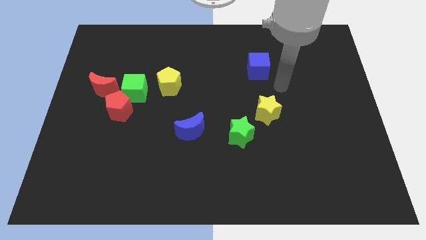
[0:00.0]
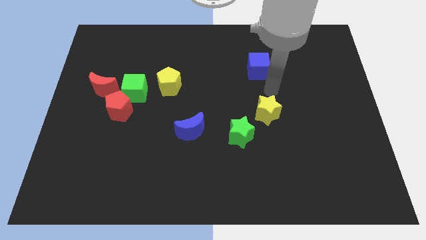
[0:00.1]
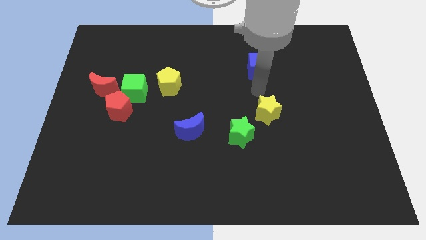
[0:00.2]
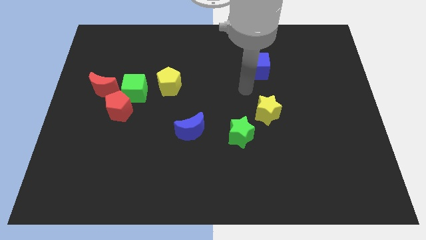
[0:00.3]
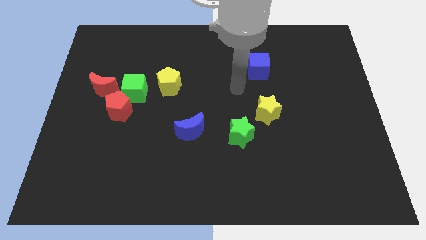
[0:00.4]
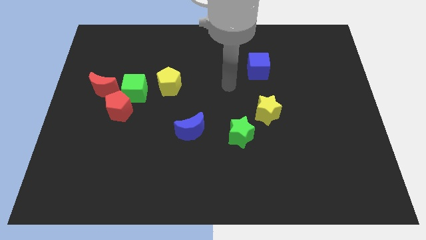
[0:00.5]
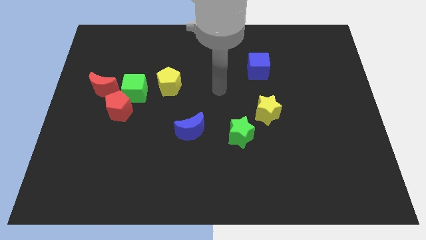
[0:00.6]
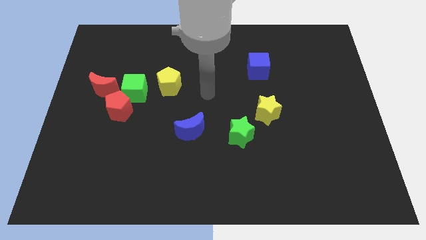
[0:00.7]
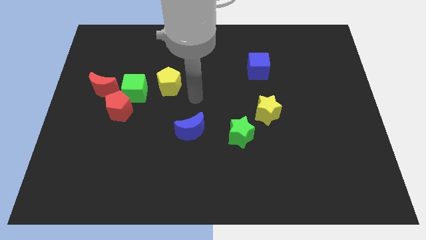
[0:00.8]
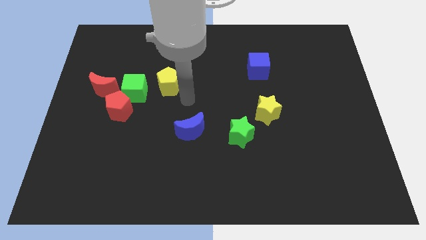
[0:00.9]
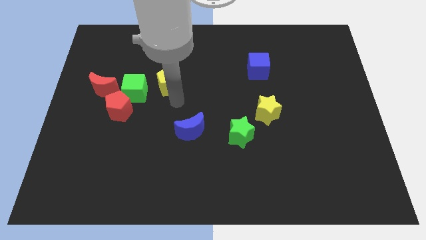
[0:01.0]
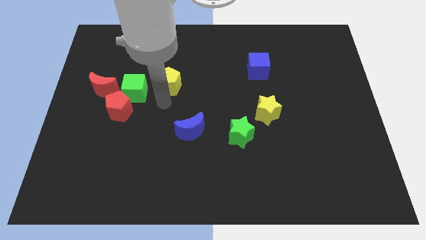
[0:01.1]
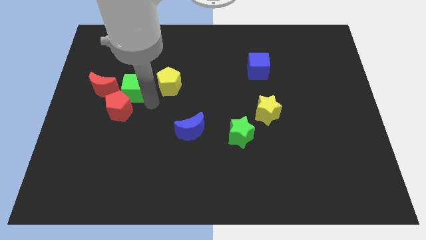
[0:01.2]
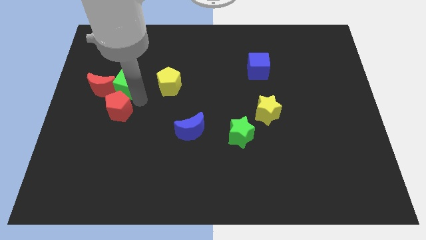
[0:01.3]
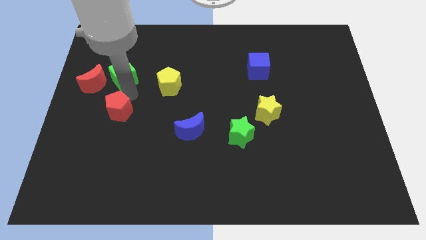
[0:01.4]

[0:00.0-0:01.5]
separate the red pentagon from the green cube and red moon

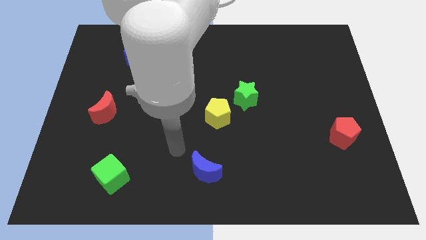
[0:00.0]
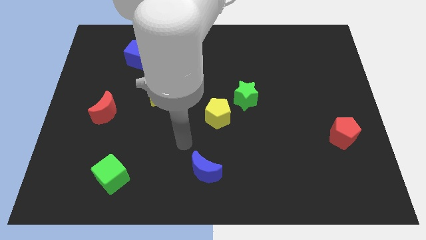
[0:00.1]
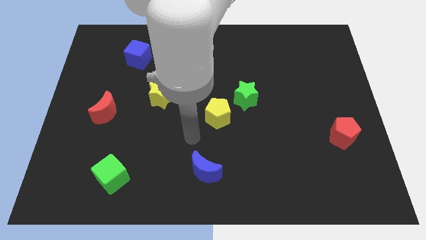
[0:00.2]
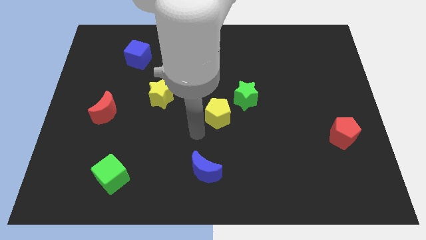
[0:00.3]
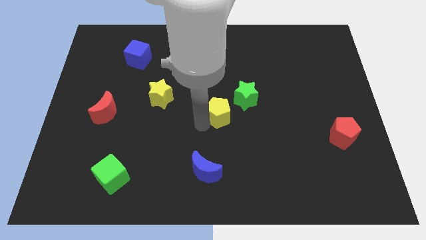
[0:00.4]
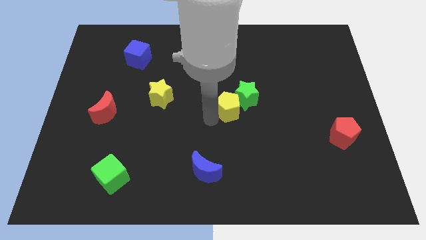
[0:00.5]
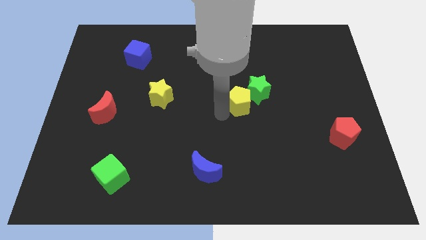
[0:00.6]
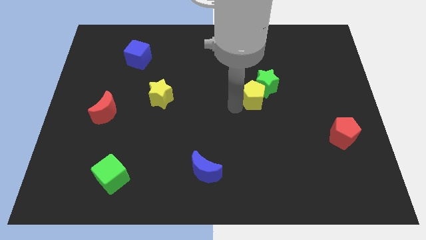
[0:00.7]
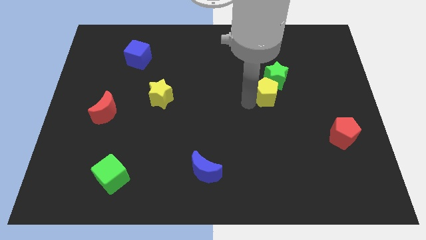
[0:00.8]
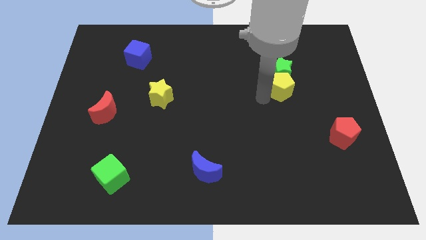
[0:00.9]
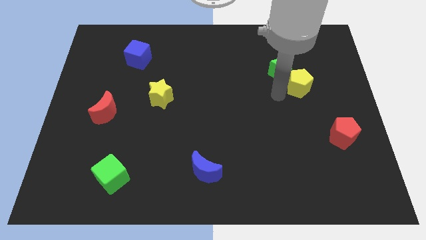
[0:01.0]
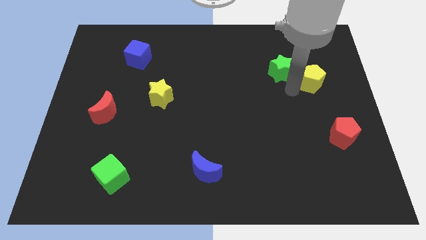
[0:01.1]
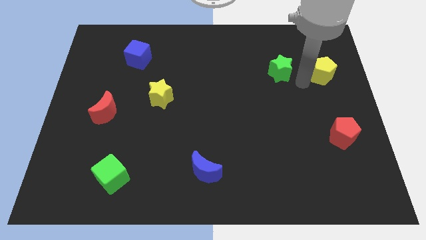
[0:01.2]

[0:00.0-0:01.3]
separate the green star from the yellow pentagon

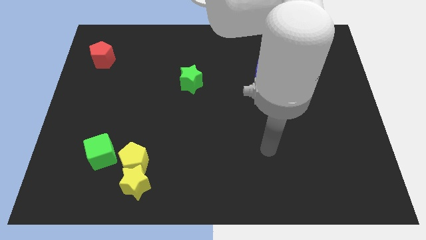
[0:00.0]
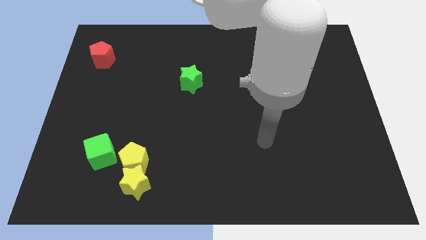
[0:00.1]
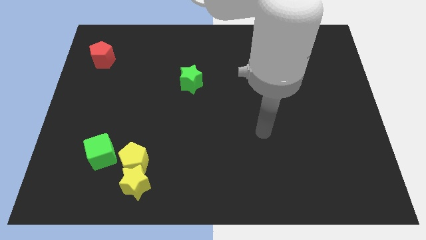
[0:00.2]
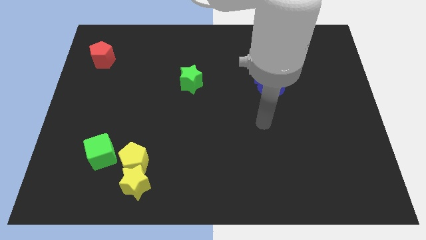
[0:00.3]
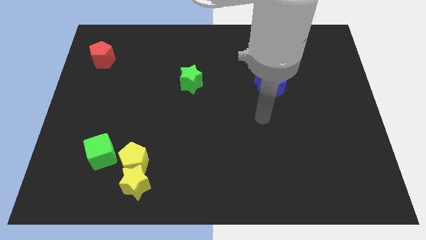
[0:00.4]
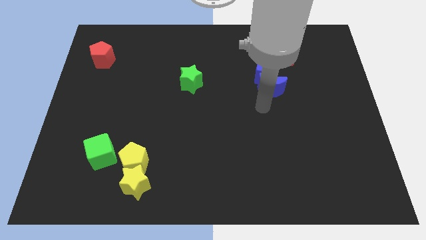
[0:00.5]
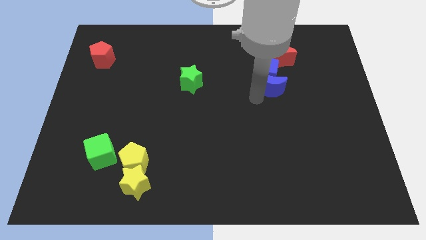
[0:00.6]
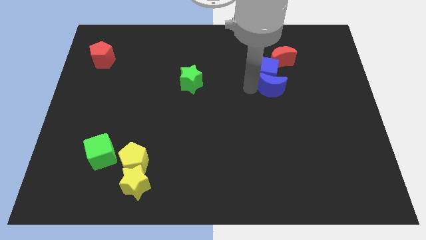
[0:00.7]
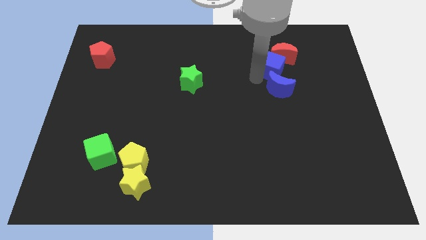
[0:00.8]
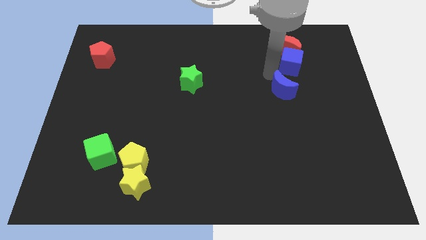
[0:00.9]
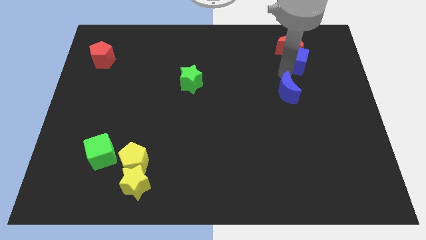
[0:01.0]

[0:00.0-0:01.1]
move the blue moon away from the blue cube

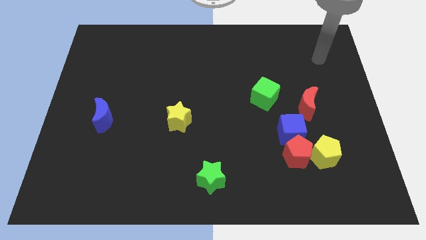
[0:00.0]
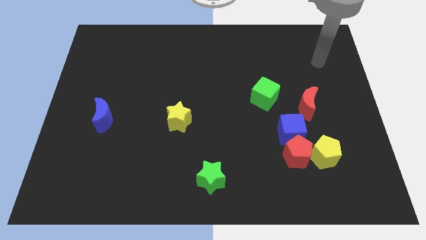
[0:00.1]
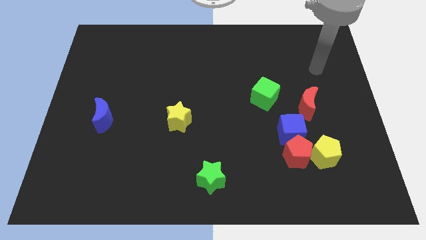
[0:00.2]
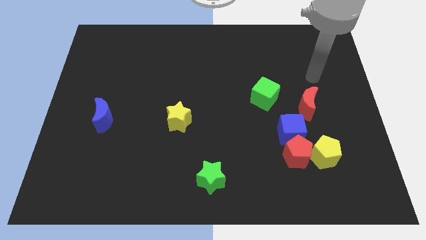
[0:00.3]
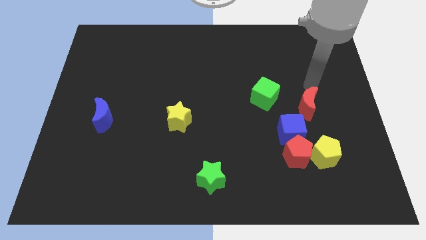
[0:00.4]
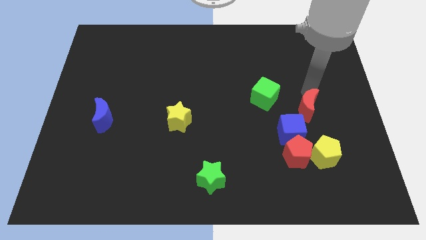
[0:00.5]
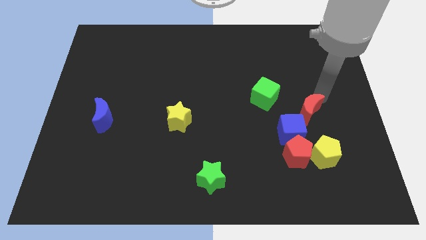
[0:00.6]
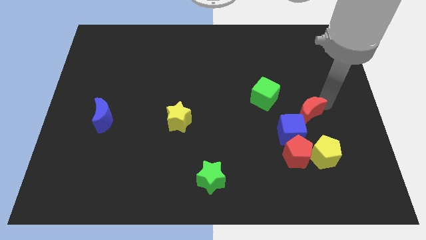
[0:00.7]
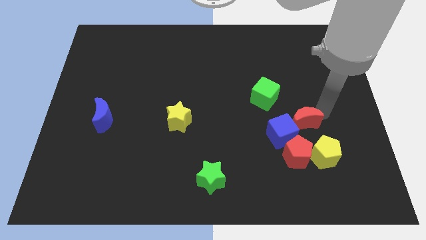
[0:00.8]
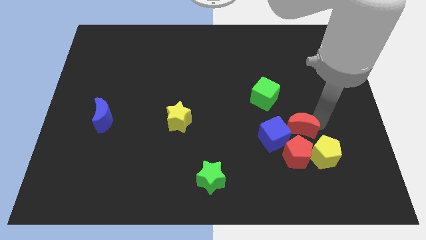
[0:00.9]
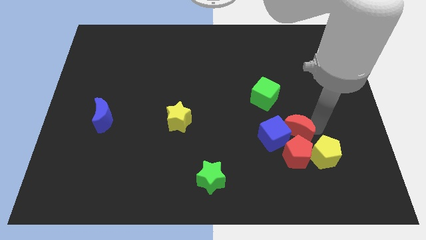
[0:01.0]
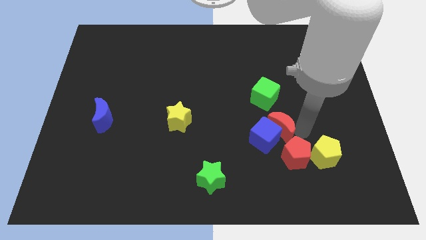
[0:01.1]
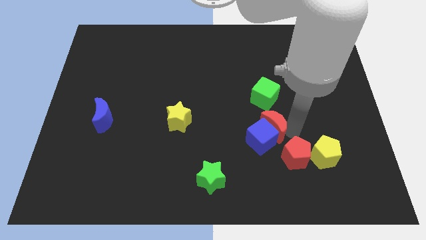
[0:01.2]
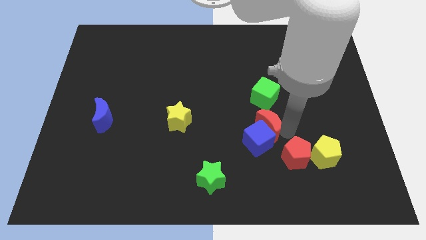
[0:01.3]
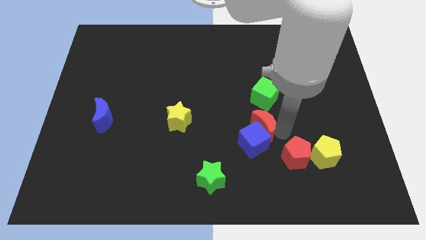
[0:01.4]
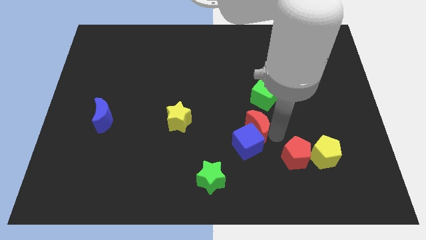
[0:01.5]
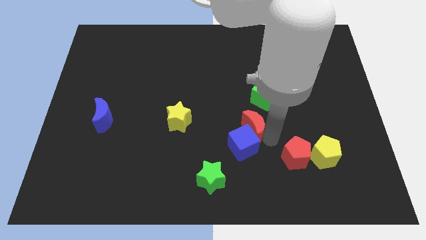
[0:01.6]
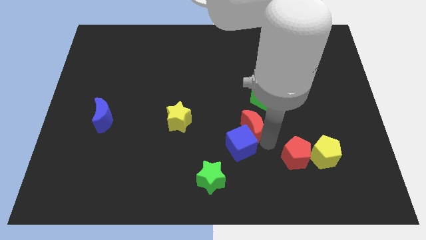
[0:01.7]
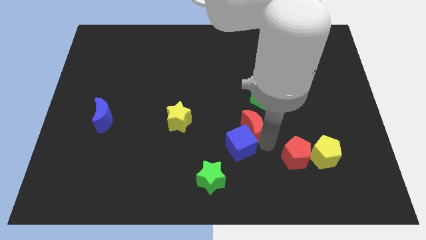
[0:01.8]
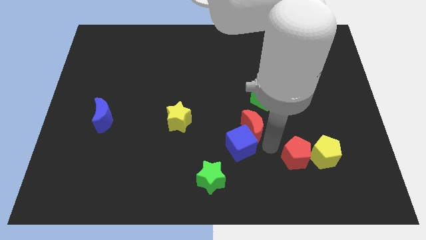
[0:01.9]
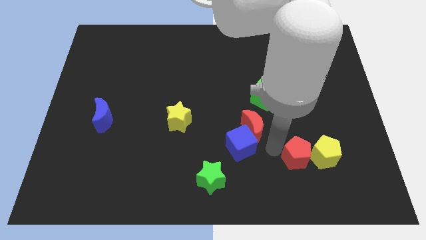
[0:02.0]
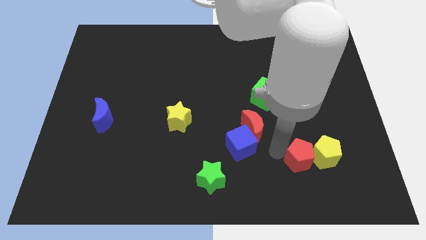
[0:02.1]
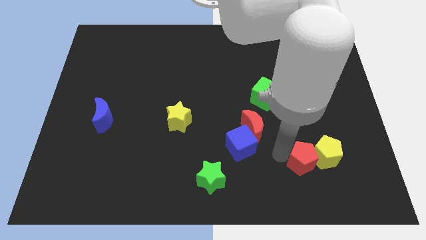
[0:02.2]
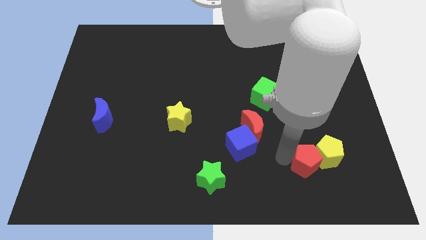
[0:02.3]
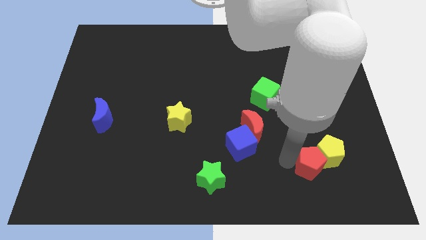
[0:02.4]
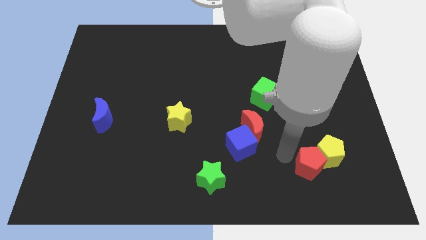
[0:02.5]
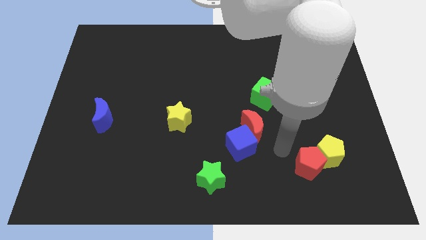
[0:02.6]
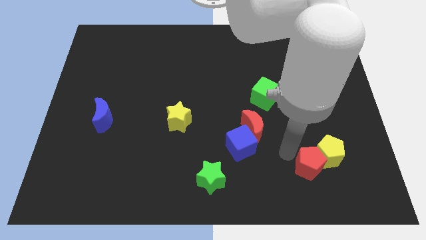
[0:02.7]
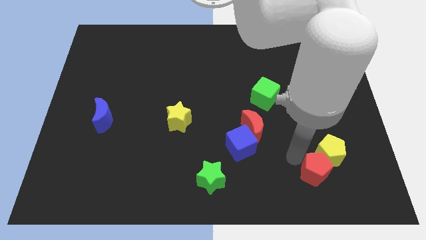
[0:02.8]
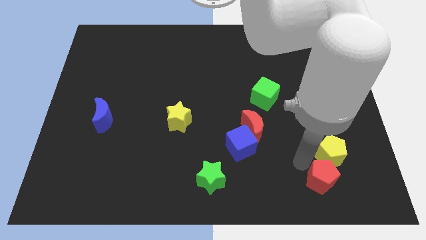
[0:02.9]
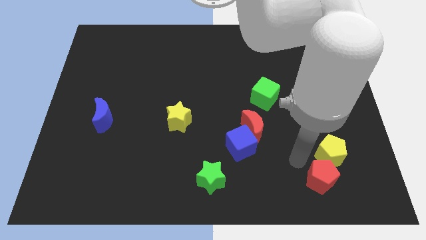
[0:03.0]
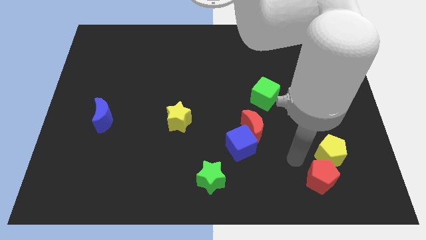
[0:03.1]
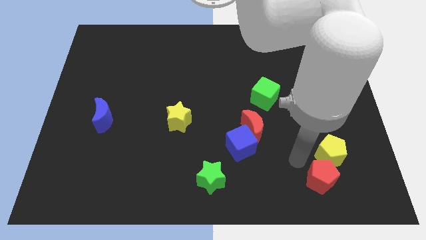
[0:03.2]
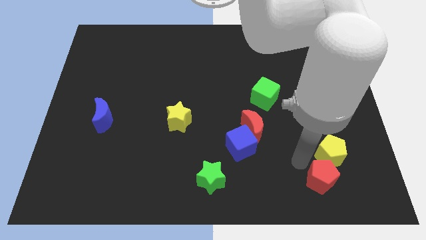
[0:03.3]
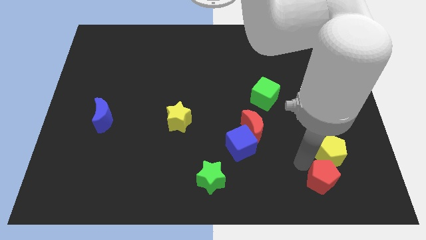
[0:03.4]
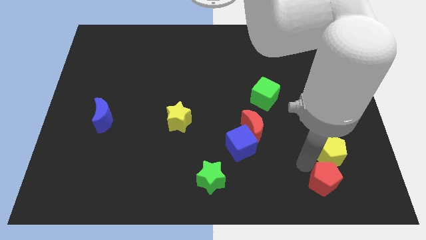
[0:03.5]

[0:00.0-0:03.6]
separate the red pentagon from the yellow pentagon and blue cube

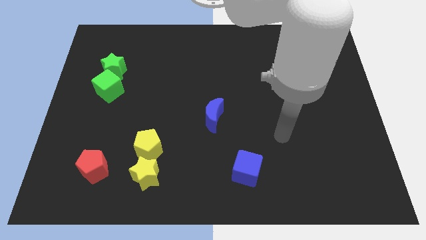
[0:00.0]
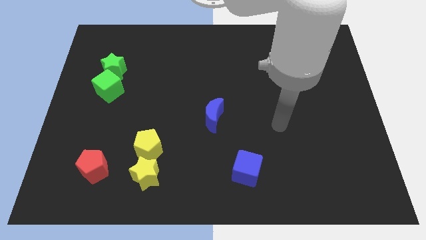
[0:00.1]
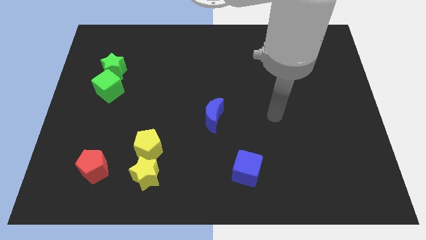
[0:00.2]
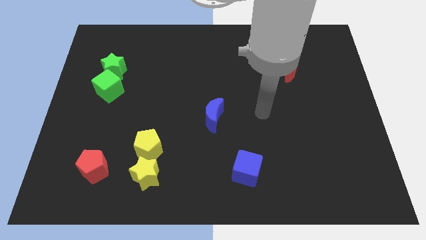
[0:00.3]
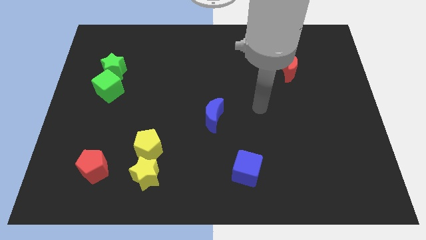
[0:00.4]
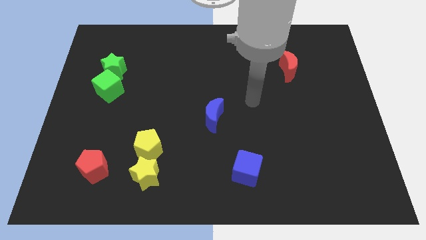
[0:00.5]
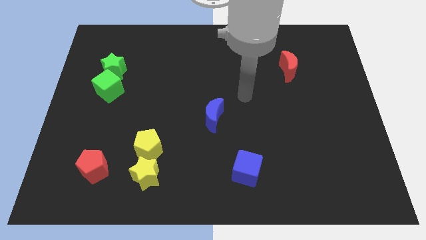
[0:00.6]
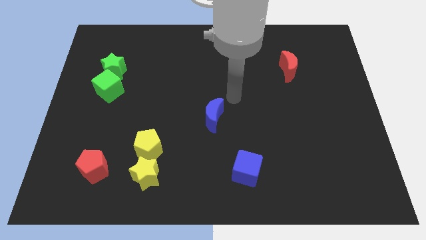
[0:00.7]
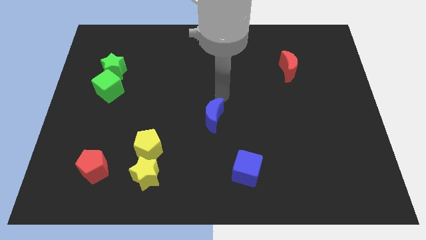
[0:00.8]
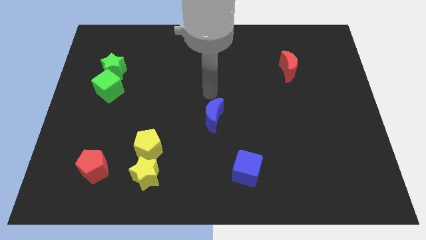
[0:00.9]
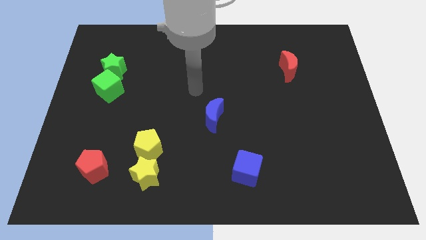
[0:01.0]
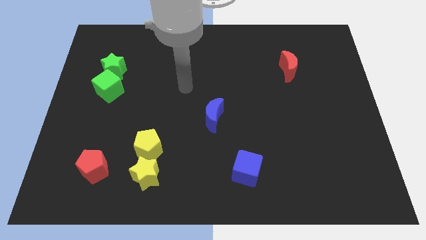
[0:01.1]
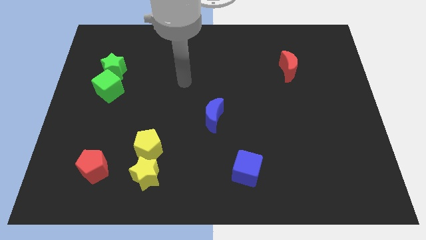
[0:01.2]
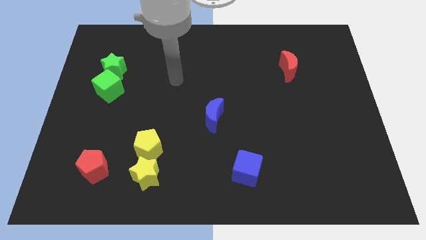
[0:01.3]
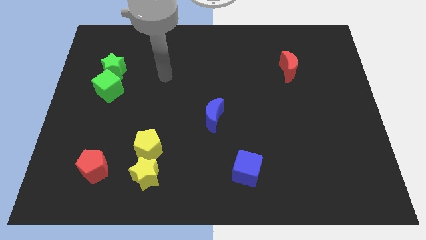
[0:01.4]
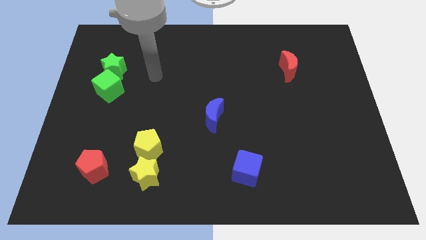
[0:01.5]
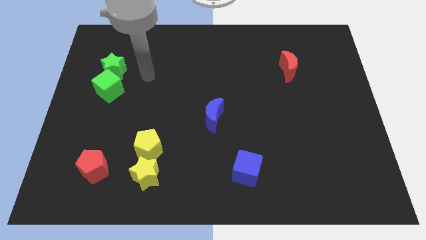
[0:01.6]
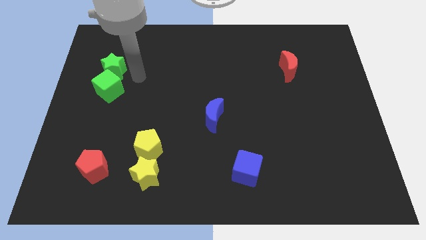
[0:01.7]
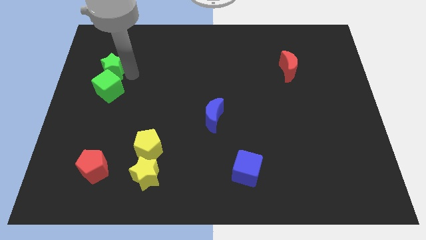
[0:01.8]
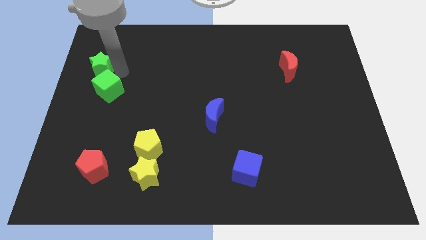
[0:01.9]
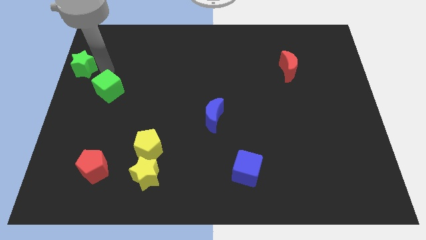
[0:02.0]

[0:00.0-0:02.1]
separate the green cube from the green star
